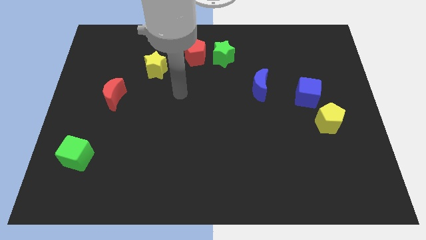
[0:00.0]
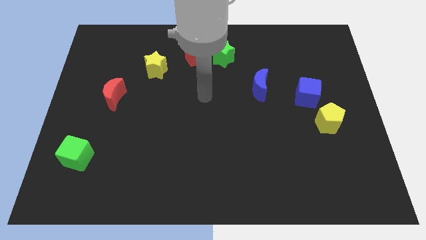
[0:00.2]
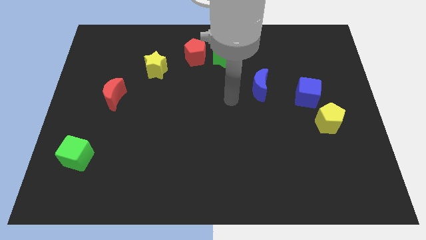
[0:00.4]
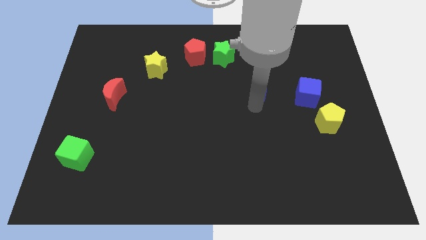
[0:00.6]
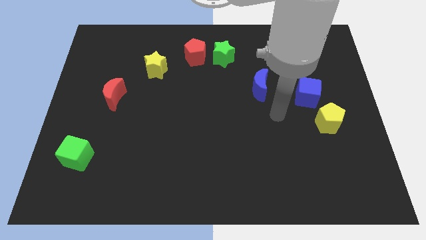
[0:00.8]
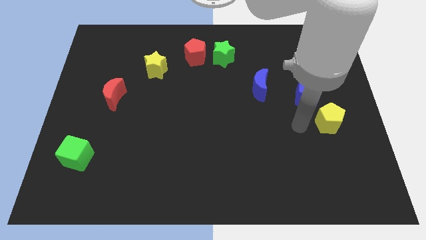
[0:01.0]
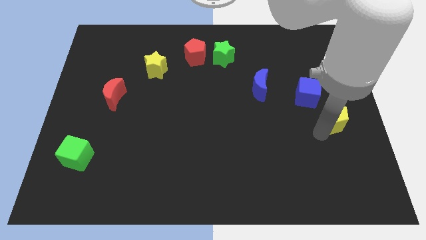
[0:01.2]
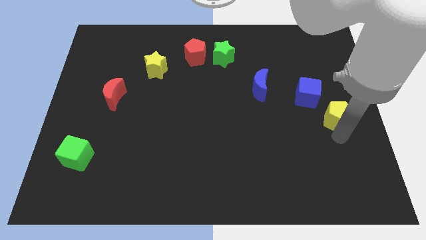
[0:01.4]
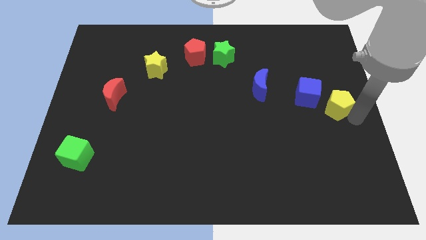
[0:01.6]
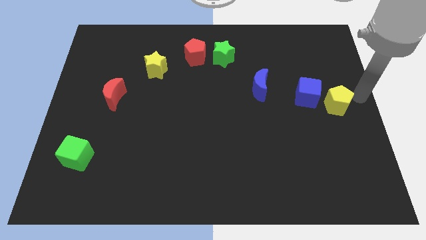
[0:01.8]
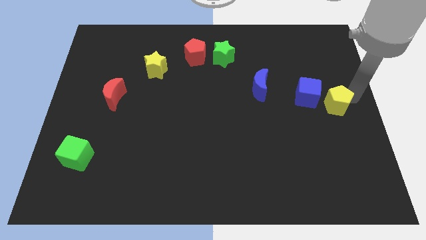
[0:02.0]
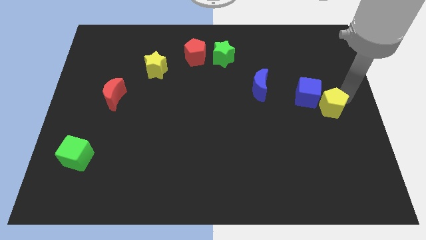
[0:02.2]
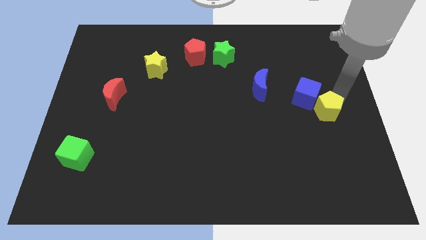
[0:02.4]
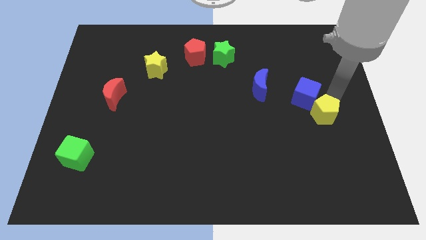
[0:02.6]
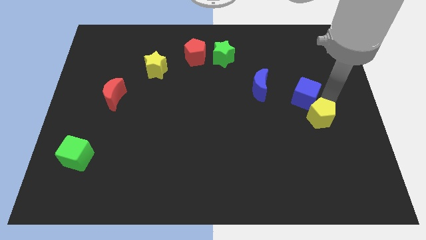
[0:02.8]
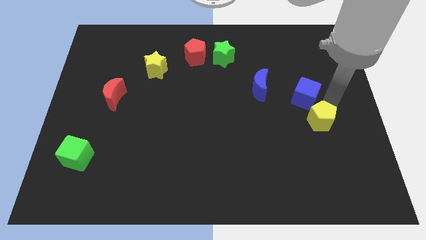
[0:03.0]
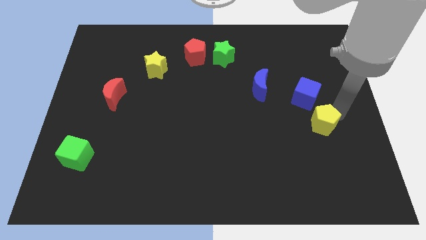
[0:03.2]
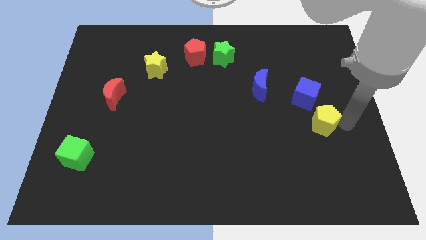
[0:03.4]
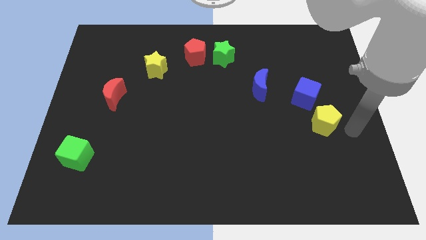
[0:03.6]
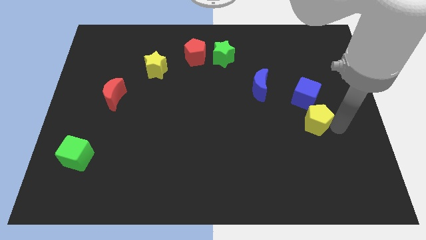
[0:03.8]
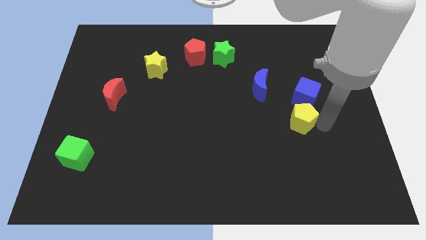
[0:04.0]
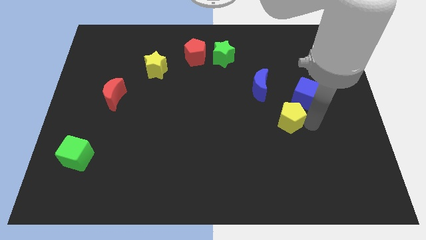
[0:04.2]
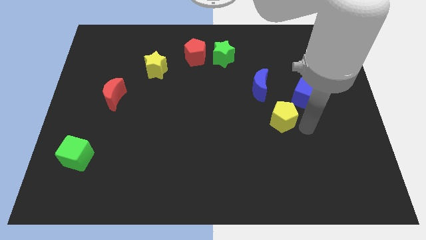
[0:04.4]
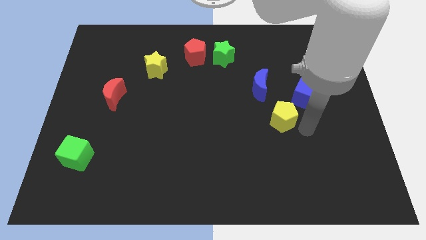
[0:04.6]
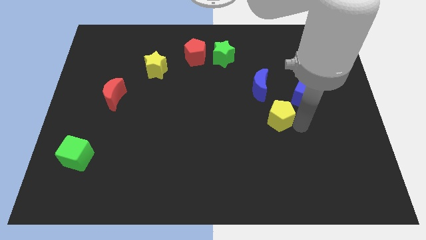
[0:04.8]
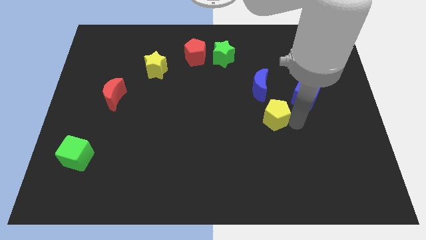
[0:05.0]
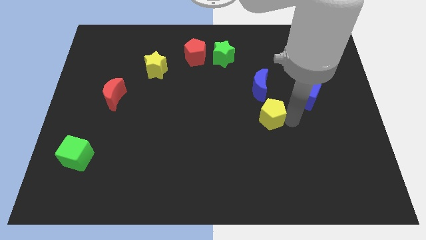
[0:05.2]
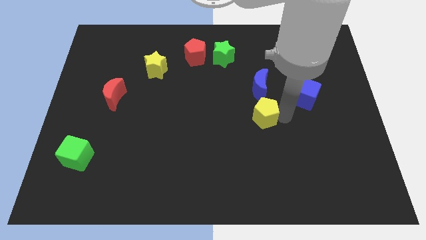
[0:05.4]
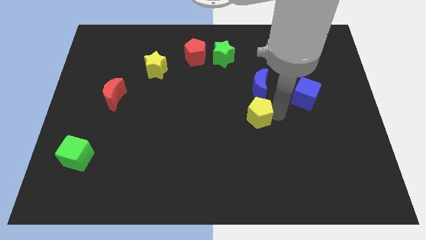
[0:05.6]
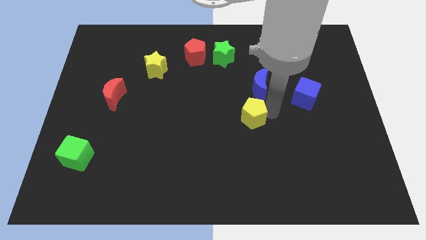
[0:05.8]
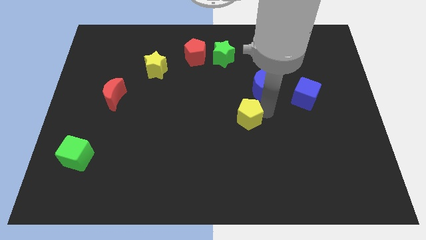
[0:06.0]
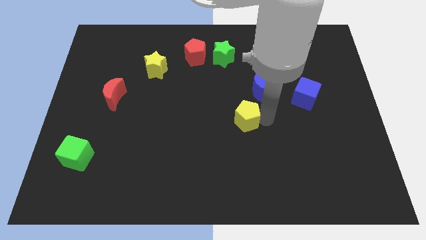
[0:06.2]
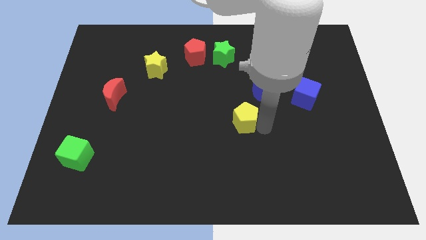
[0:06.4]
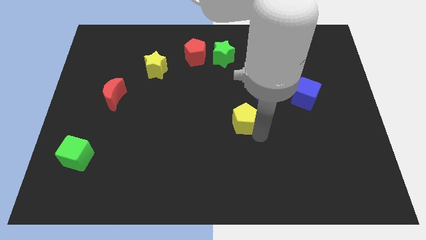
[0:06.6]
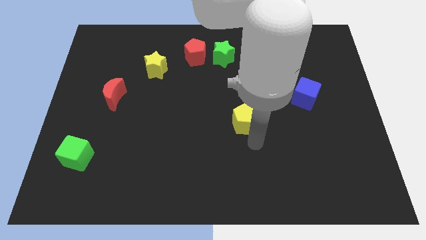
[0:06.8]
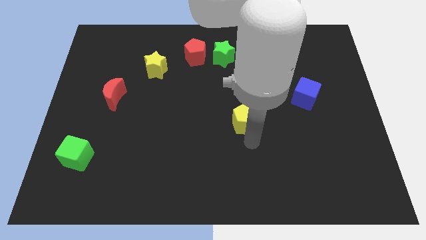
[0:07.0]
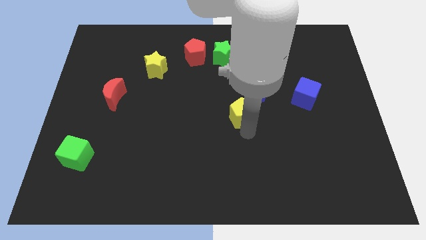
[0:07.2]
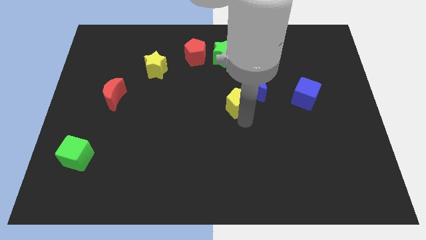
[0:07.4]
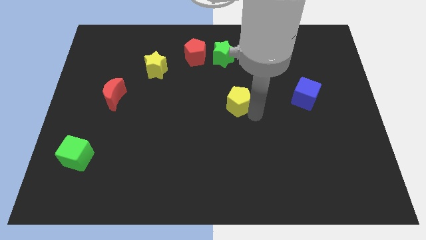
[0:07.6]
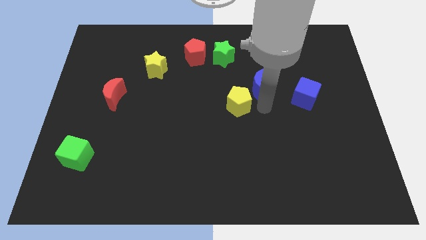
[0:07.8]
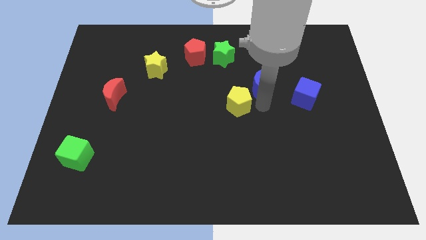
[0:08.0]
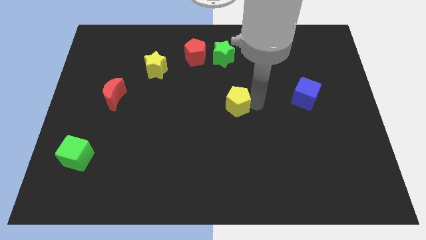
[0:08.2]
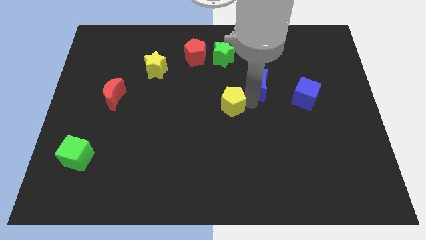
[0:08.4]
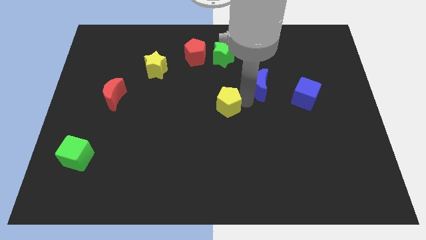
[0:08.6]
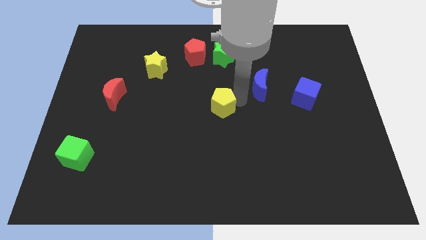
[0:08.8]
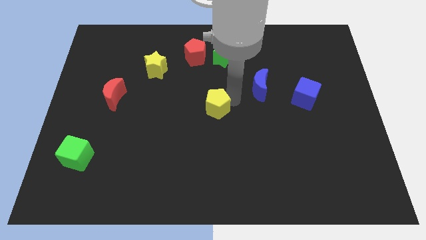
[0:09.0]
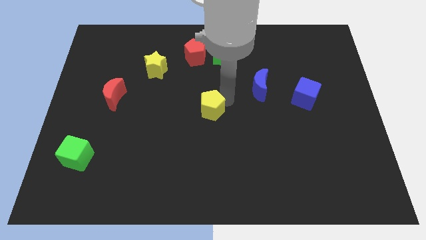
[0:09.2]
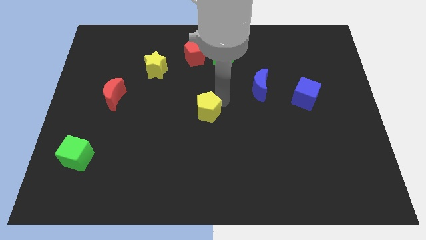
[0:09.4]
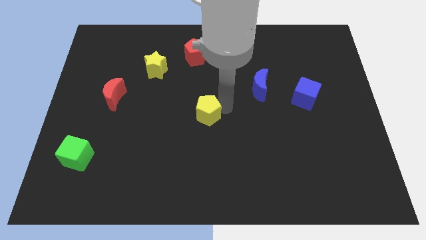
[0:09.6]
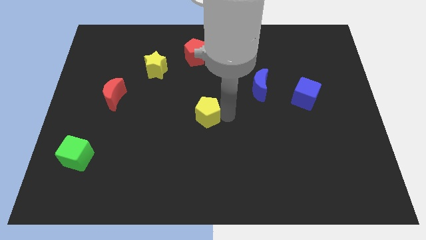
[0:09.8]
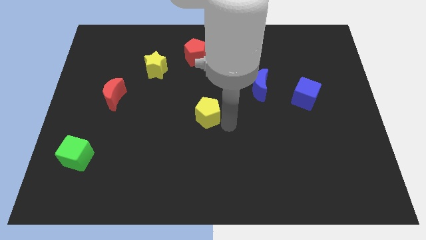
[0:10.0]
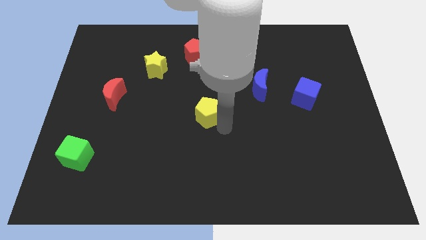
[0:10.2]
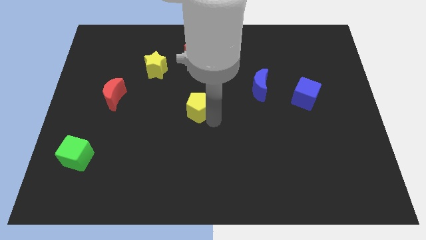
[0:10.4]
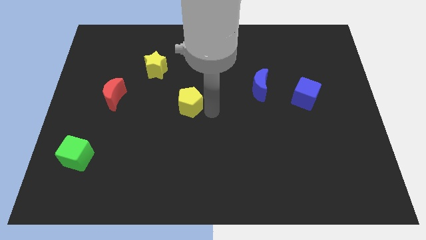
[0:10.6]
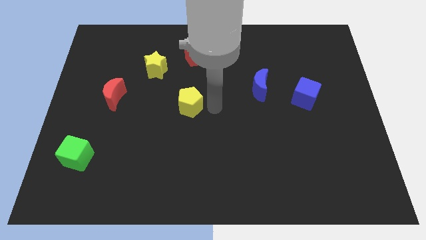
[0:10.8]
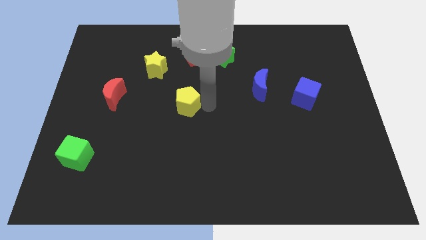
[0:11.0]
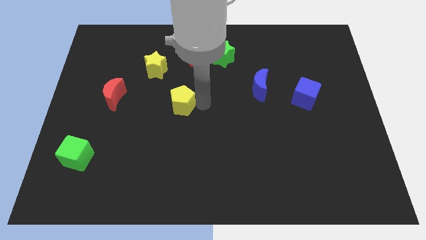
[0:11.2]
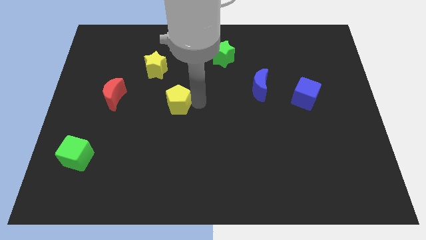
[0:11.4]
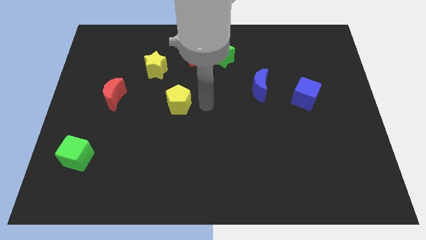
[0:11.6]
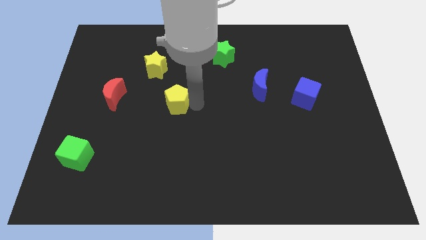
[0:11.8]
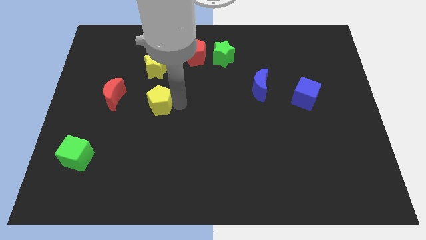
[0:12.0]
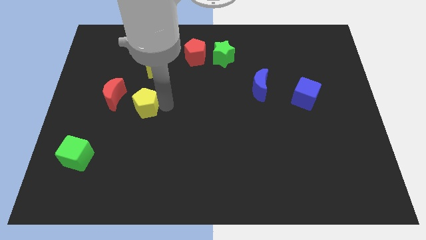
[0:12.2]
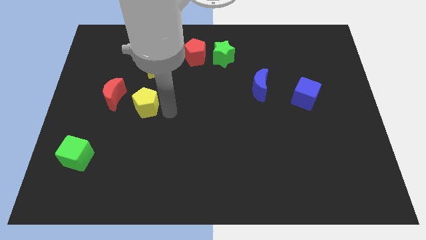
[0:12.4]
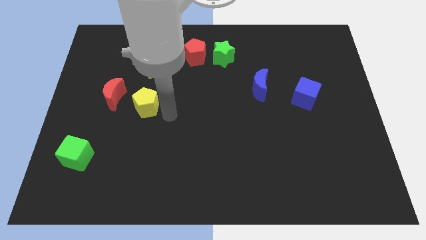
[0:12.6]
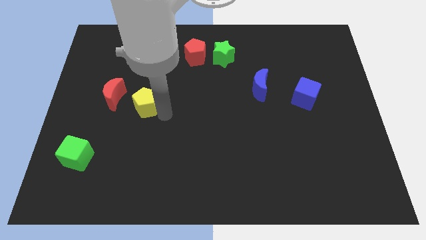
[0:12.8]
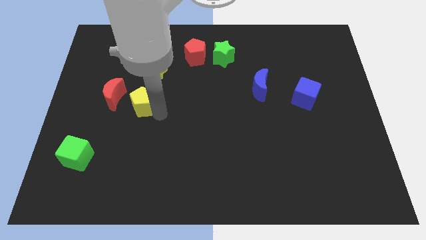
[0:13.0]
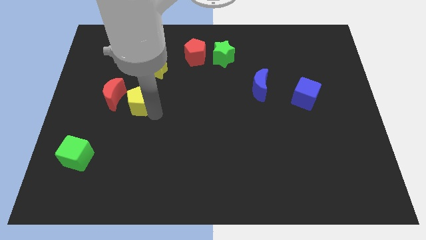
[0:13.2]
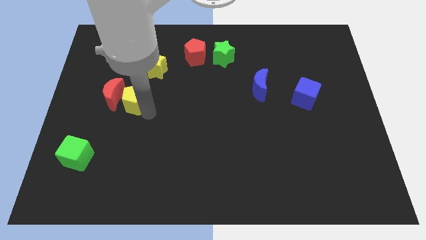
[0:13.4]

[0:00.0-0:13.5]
put the yellow pentagon next to the red moon
